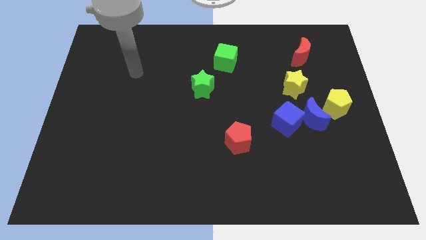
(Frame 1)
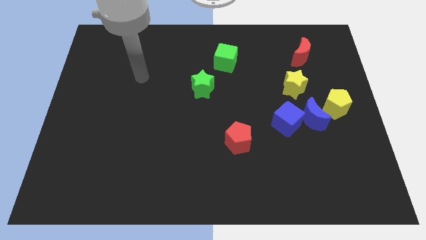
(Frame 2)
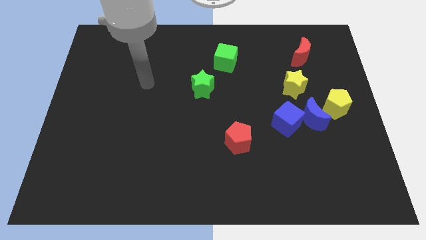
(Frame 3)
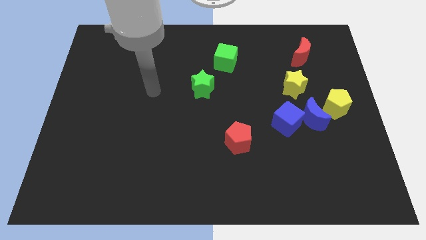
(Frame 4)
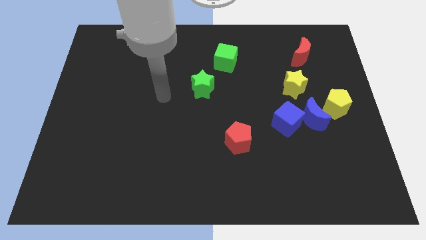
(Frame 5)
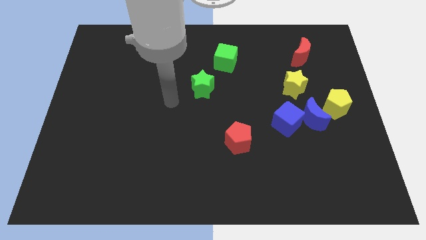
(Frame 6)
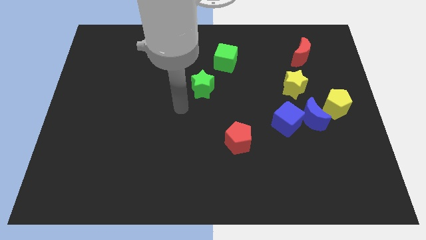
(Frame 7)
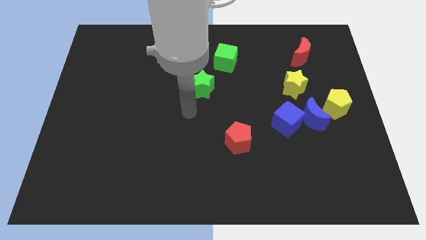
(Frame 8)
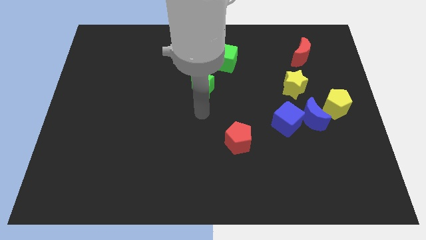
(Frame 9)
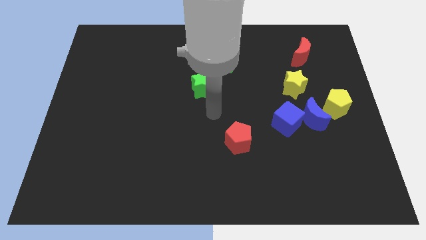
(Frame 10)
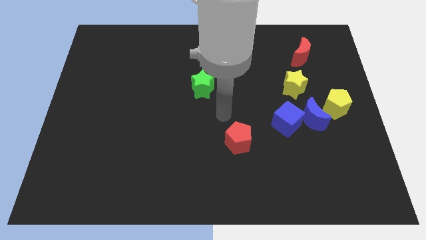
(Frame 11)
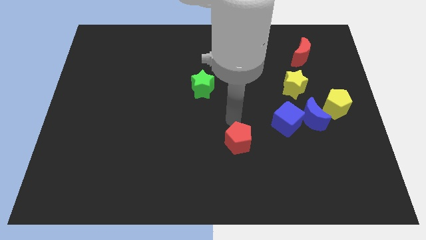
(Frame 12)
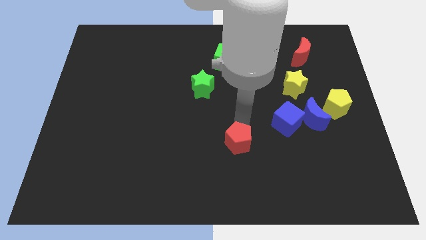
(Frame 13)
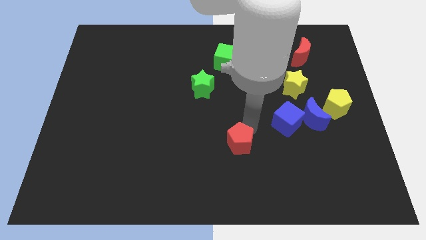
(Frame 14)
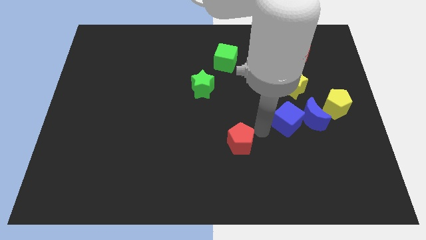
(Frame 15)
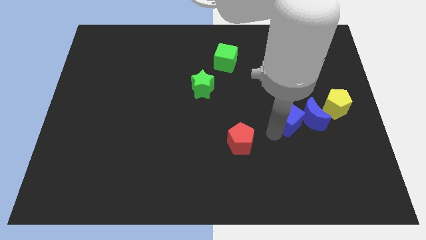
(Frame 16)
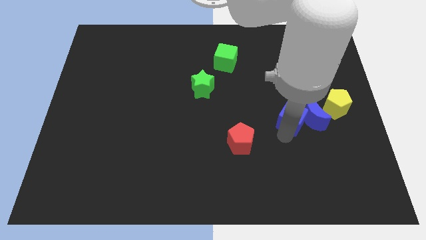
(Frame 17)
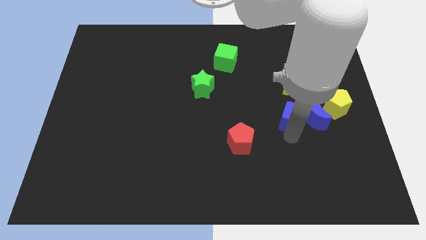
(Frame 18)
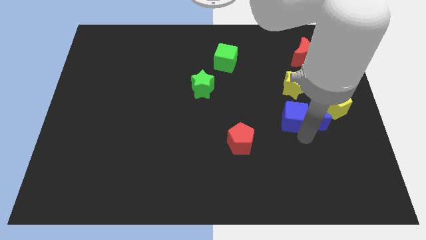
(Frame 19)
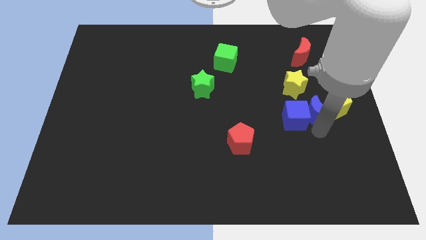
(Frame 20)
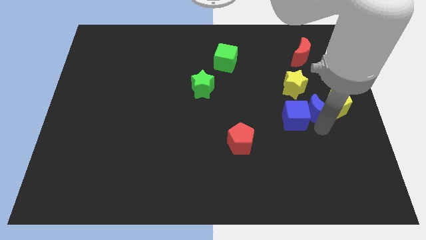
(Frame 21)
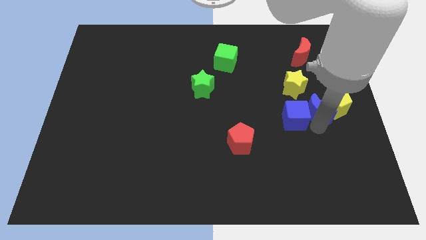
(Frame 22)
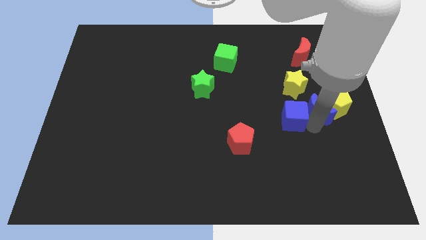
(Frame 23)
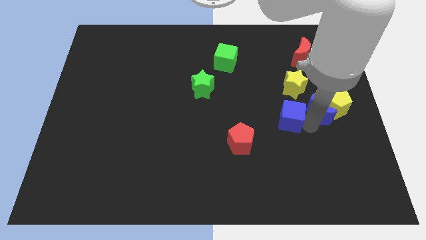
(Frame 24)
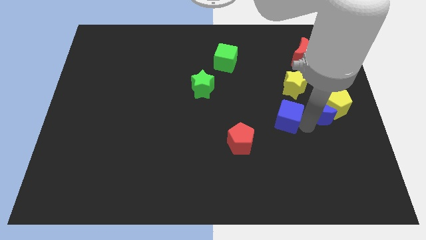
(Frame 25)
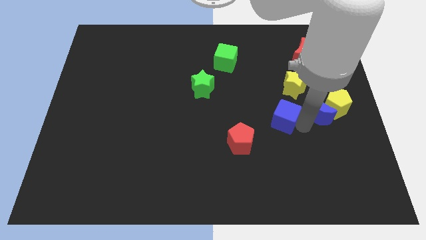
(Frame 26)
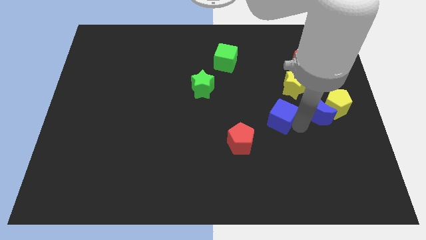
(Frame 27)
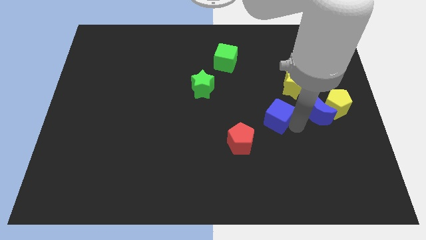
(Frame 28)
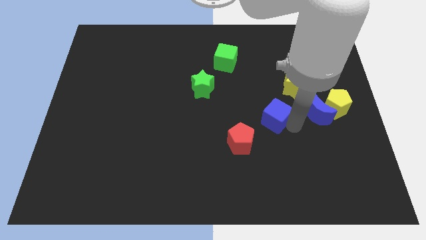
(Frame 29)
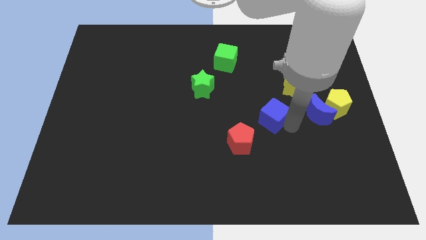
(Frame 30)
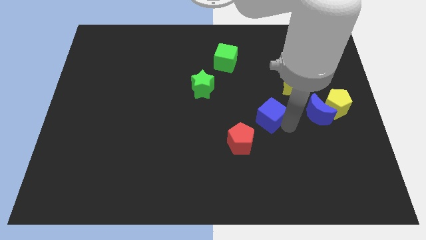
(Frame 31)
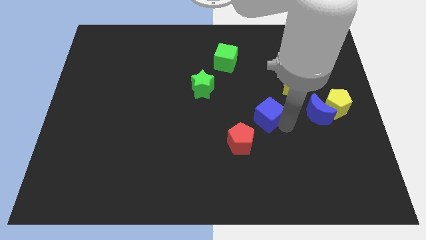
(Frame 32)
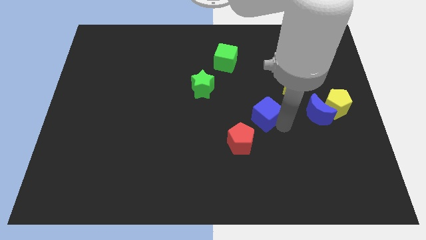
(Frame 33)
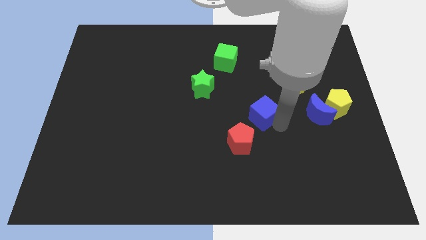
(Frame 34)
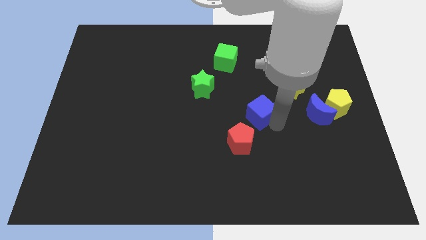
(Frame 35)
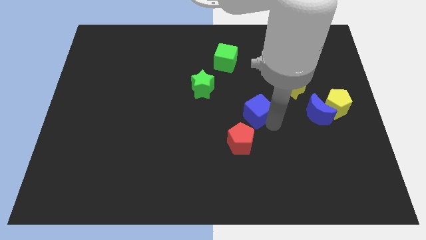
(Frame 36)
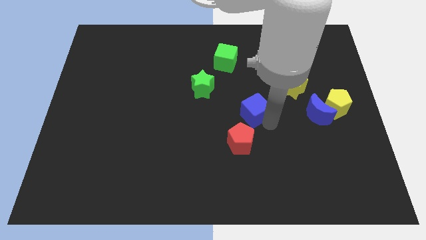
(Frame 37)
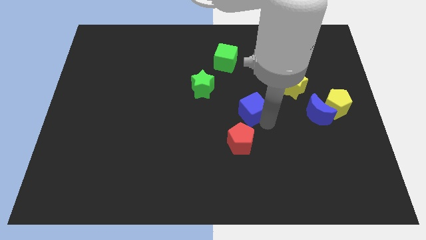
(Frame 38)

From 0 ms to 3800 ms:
push the blue cube upwards and then left a bit

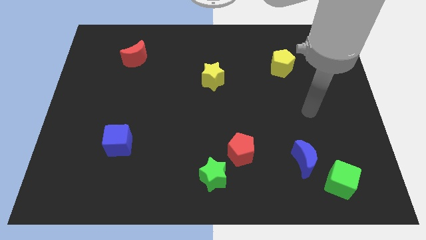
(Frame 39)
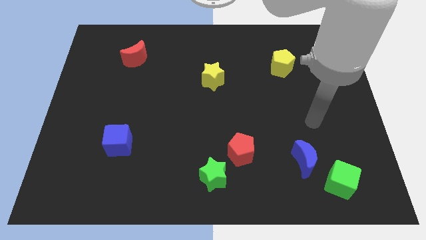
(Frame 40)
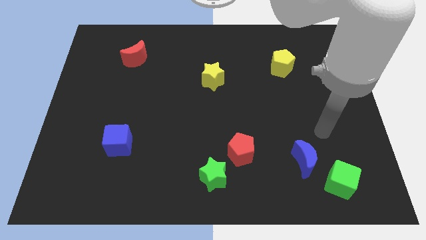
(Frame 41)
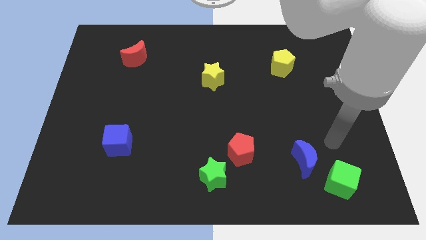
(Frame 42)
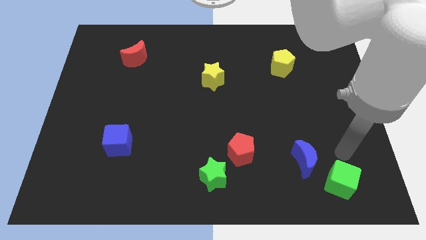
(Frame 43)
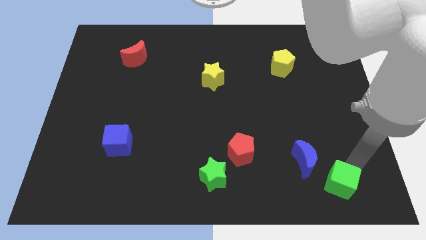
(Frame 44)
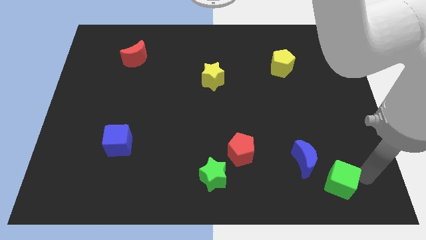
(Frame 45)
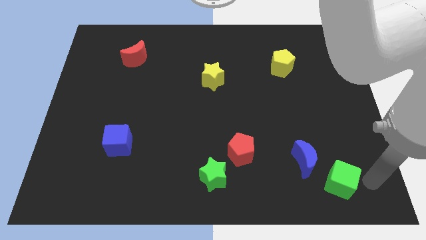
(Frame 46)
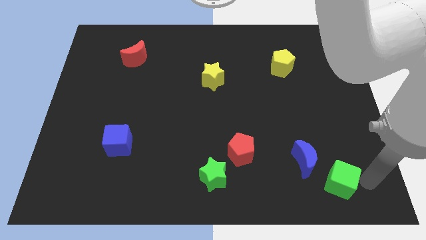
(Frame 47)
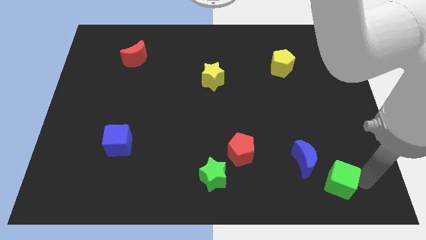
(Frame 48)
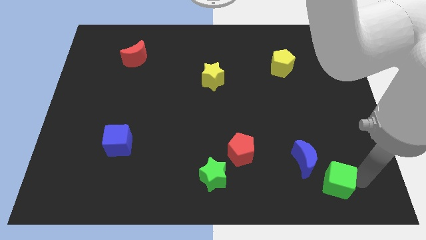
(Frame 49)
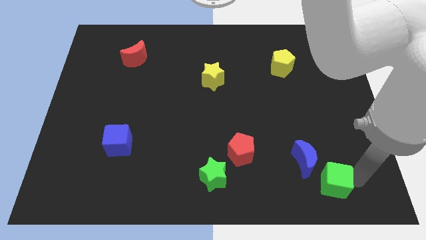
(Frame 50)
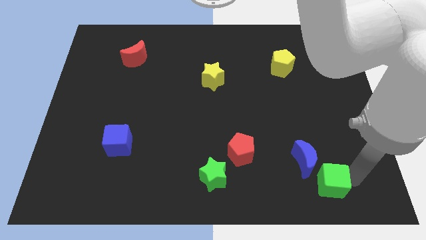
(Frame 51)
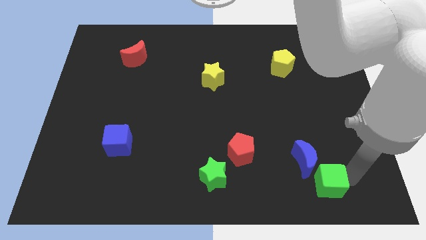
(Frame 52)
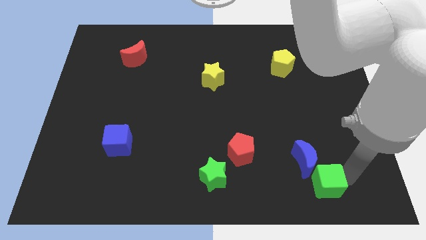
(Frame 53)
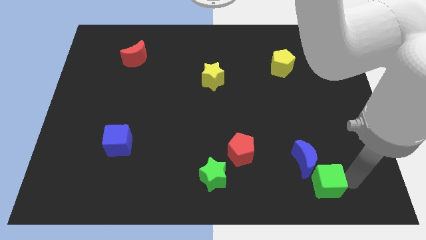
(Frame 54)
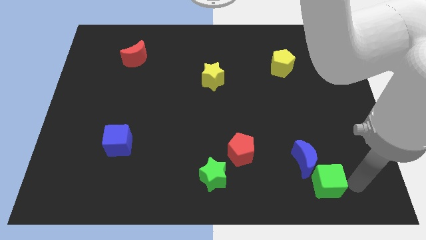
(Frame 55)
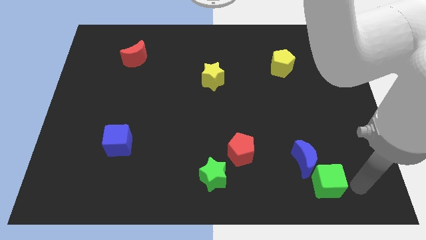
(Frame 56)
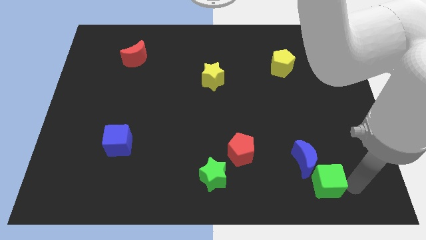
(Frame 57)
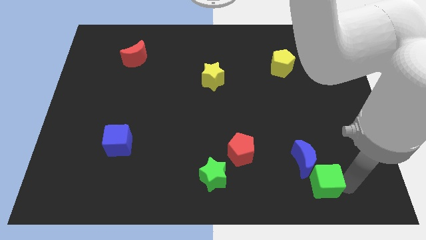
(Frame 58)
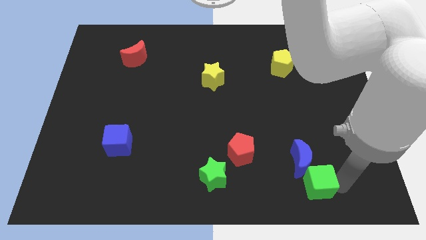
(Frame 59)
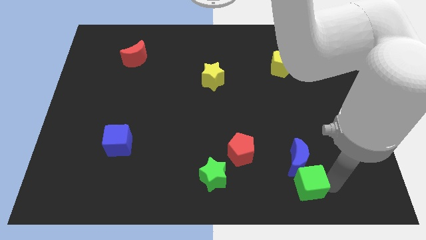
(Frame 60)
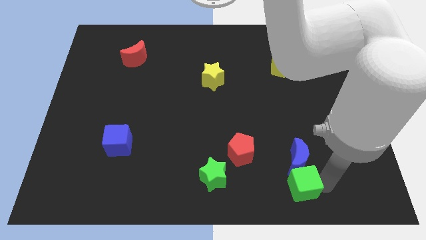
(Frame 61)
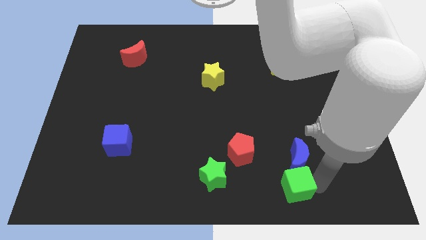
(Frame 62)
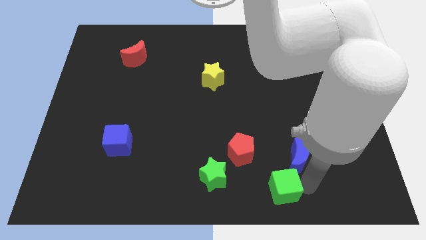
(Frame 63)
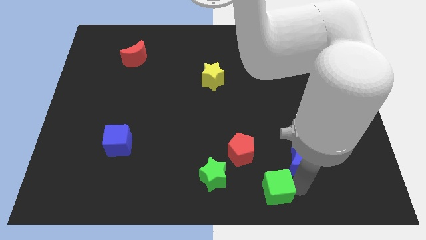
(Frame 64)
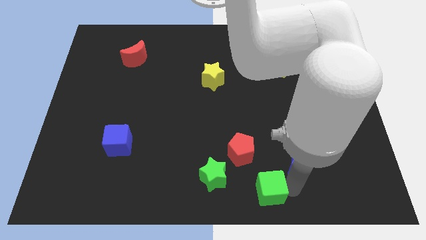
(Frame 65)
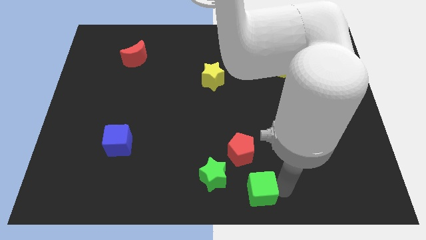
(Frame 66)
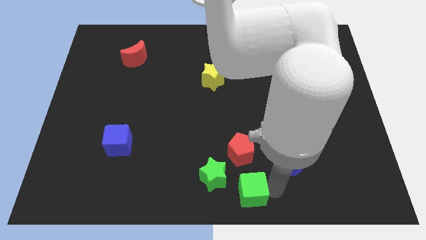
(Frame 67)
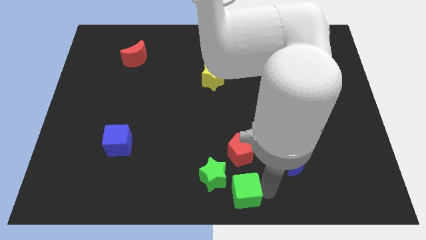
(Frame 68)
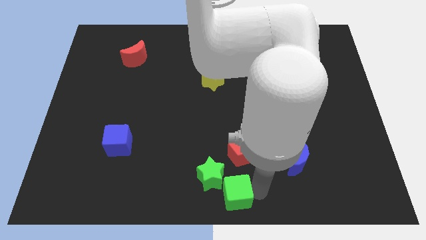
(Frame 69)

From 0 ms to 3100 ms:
move the green cube left

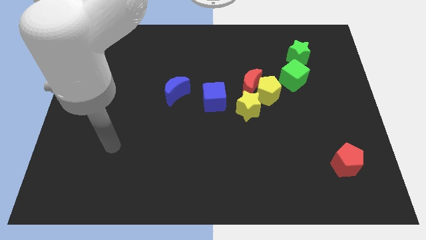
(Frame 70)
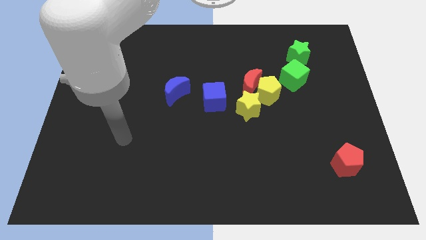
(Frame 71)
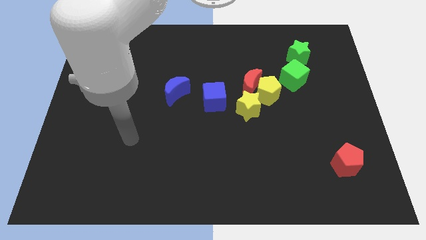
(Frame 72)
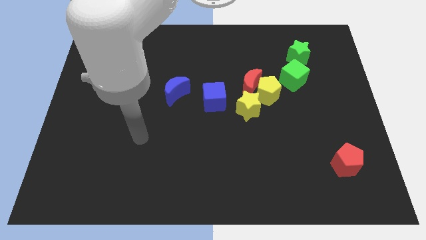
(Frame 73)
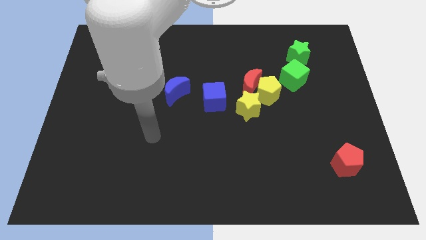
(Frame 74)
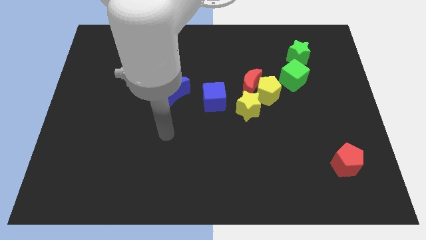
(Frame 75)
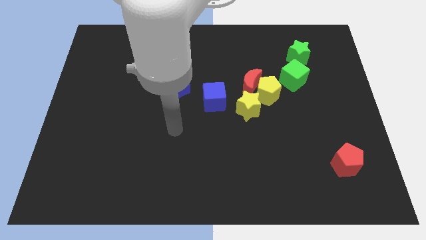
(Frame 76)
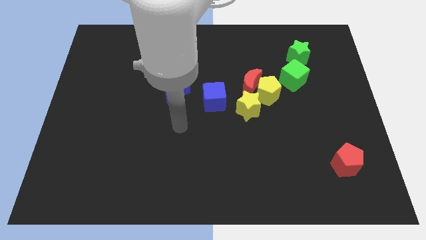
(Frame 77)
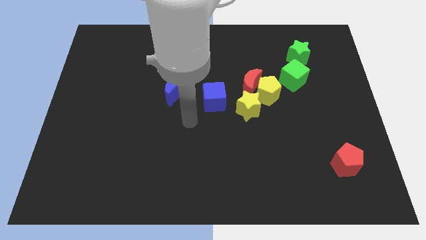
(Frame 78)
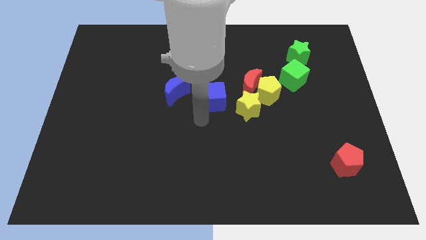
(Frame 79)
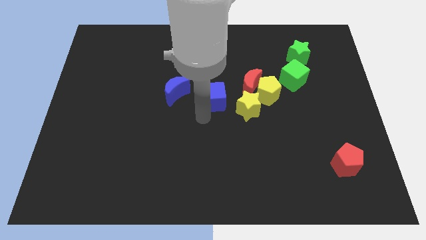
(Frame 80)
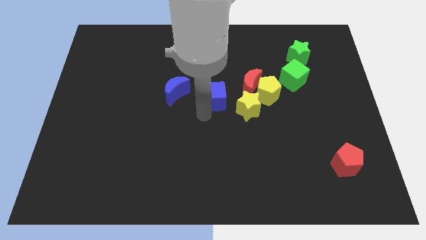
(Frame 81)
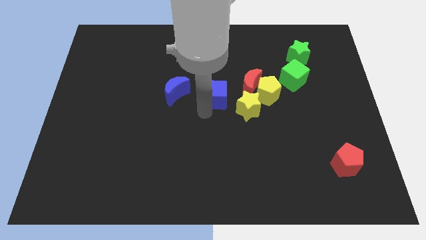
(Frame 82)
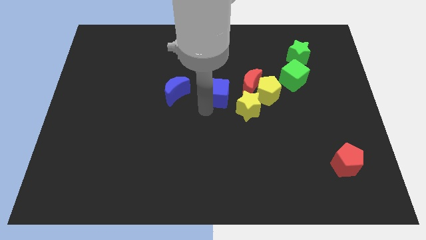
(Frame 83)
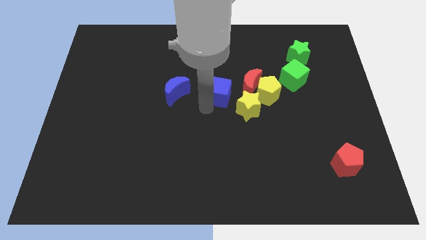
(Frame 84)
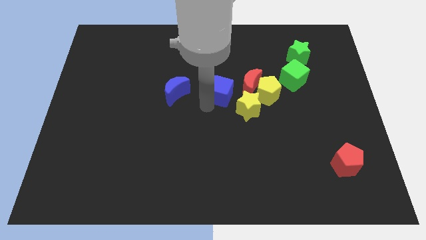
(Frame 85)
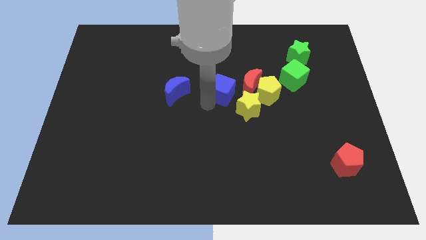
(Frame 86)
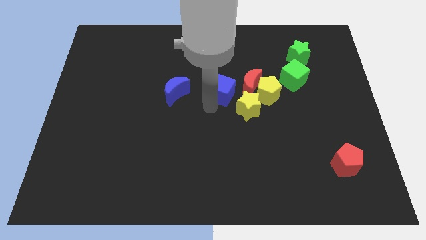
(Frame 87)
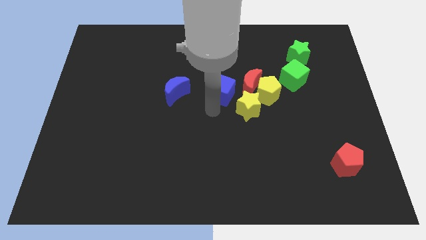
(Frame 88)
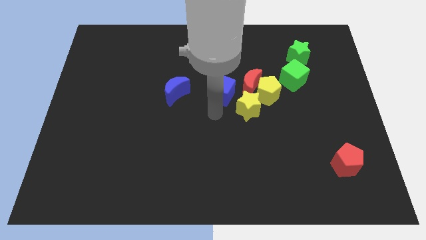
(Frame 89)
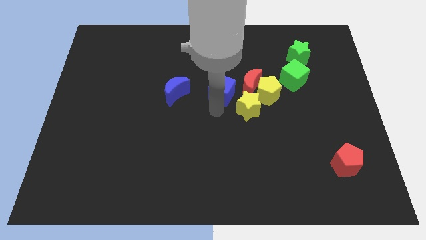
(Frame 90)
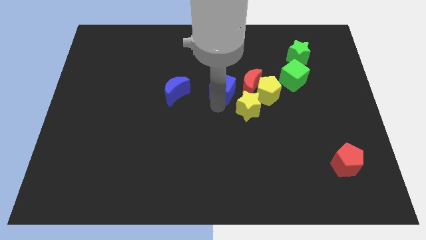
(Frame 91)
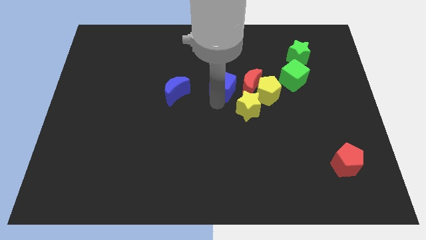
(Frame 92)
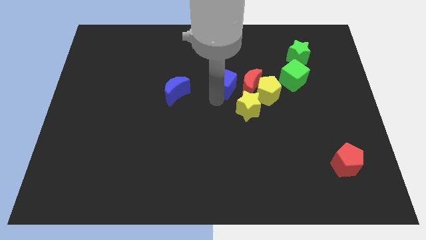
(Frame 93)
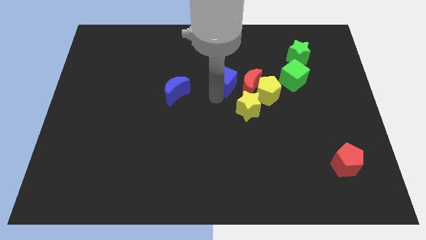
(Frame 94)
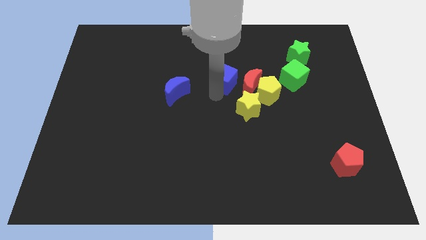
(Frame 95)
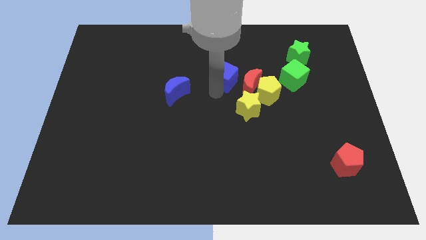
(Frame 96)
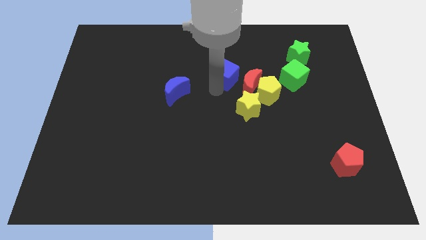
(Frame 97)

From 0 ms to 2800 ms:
slightly move the blue cube diagonally upwards and to the right
